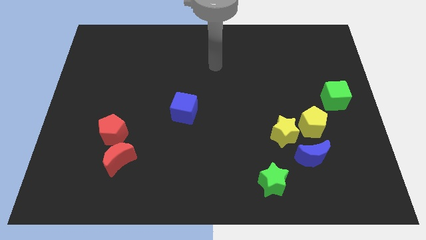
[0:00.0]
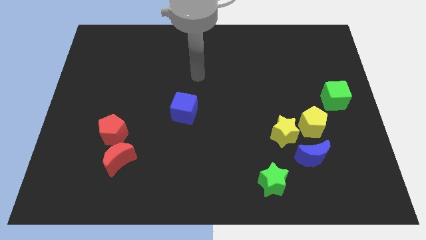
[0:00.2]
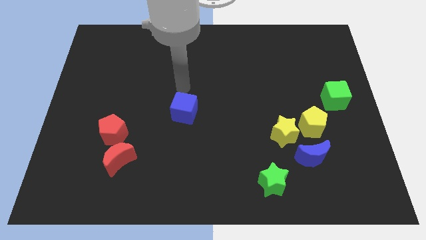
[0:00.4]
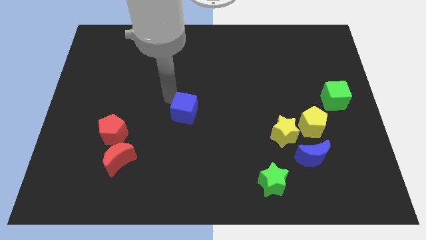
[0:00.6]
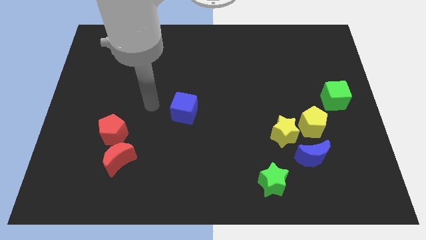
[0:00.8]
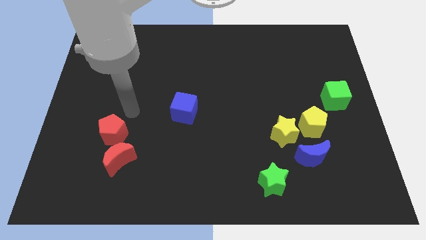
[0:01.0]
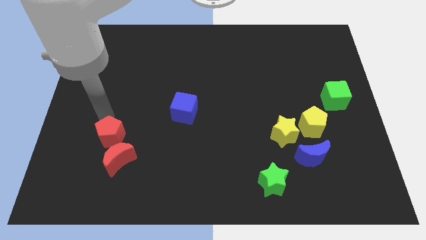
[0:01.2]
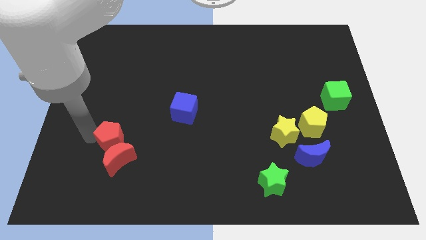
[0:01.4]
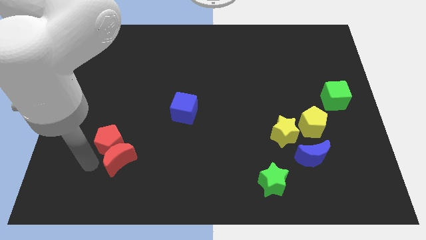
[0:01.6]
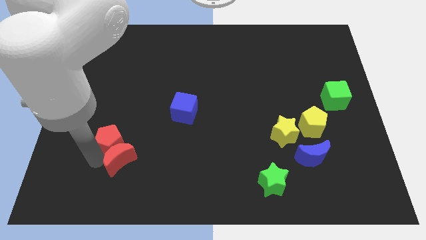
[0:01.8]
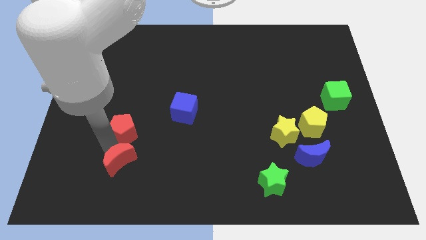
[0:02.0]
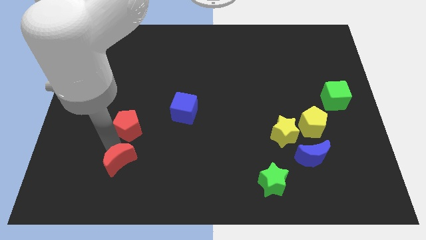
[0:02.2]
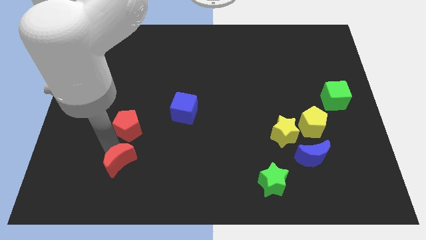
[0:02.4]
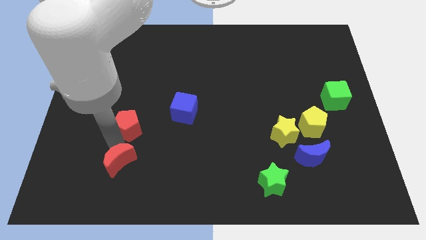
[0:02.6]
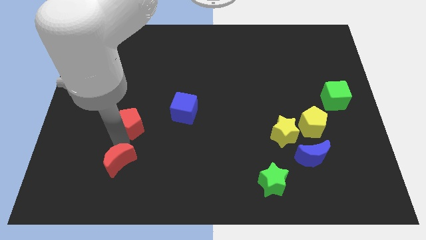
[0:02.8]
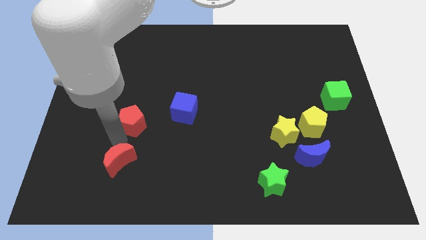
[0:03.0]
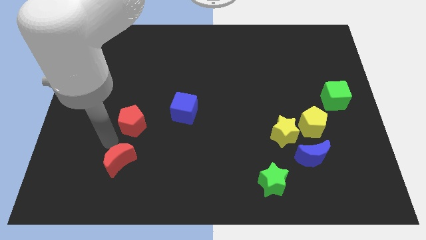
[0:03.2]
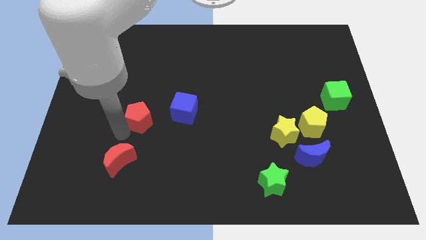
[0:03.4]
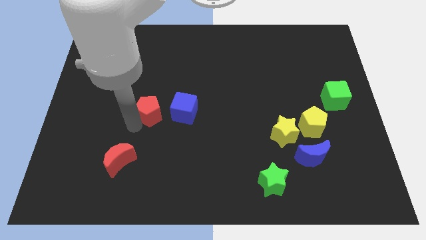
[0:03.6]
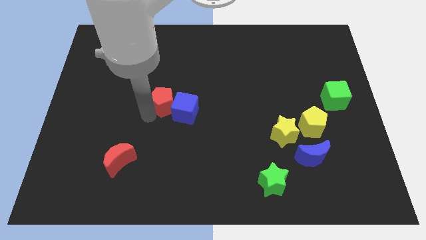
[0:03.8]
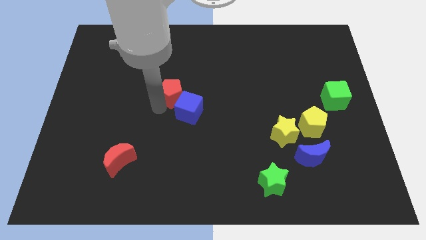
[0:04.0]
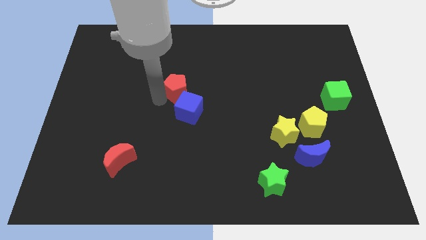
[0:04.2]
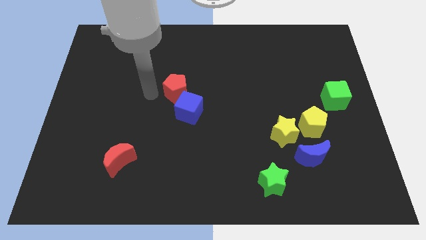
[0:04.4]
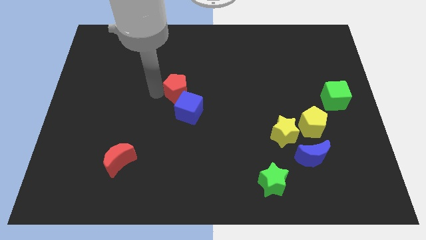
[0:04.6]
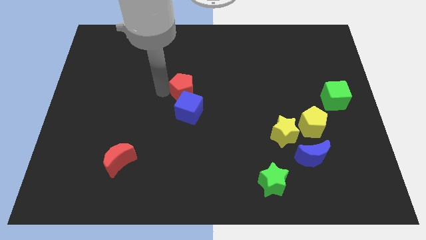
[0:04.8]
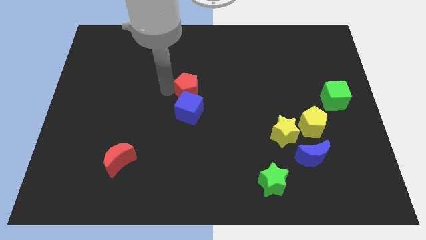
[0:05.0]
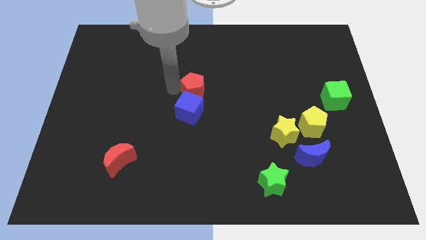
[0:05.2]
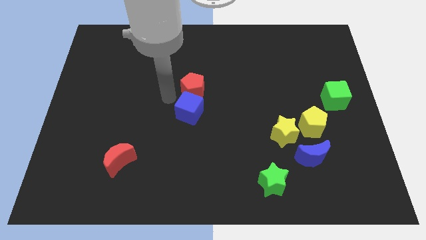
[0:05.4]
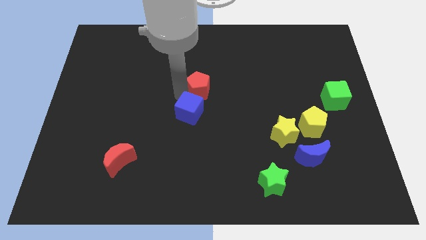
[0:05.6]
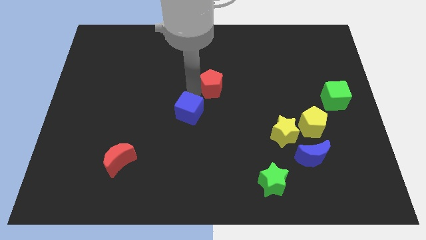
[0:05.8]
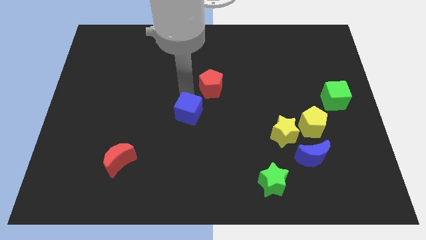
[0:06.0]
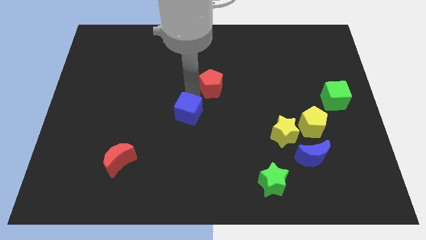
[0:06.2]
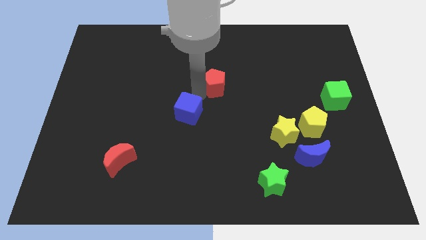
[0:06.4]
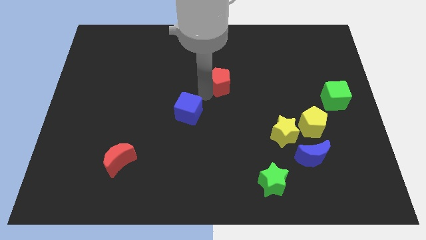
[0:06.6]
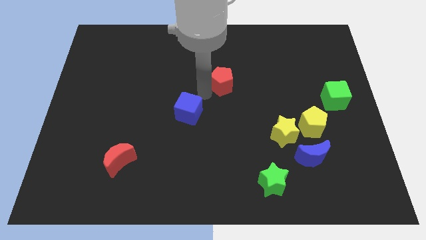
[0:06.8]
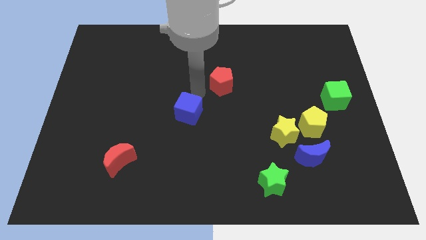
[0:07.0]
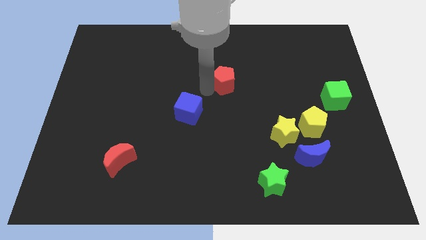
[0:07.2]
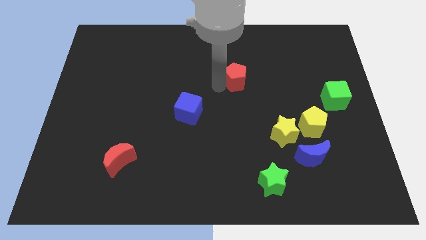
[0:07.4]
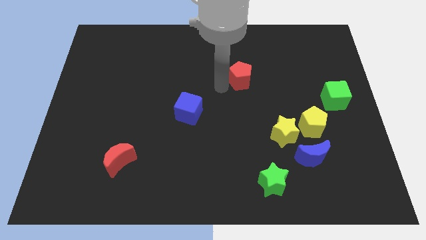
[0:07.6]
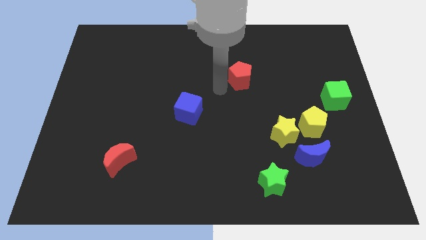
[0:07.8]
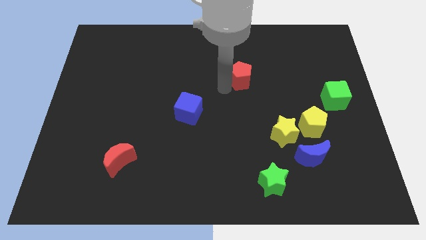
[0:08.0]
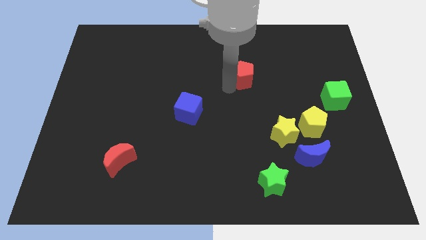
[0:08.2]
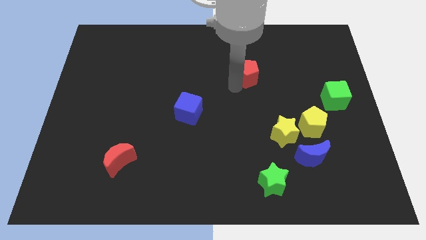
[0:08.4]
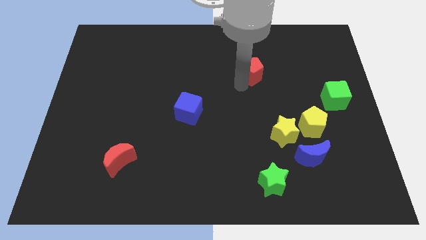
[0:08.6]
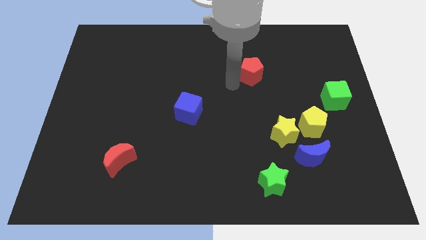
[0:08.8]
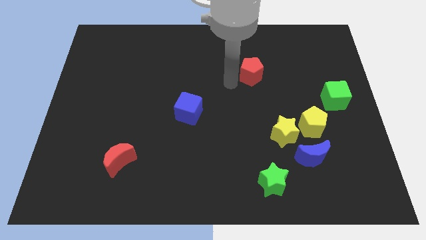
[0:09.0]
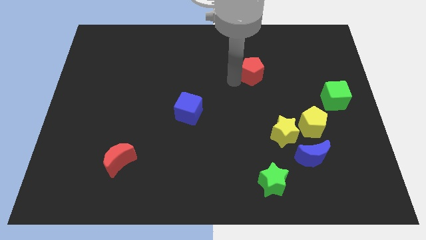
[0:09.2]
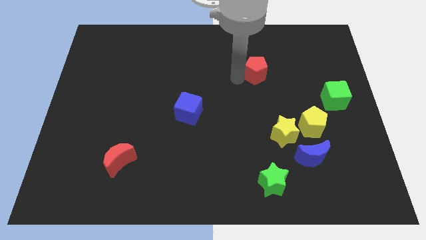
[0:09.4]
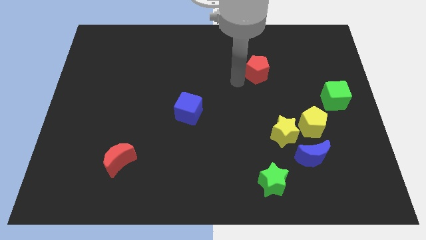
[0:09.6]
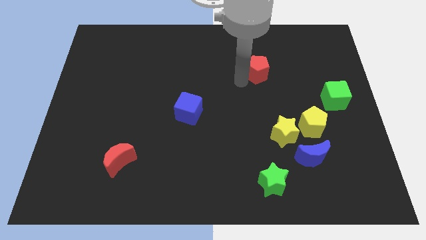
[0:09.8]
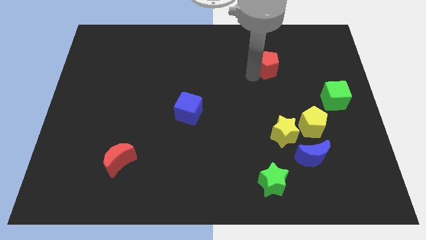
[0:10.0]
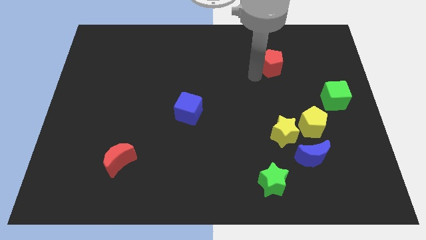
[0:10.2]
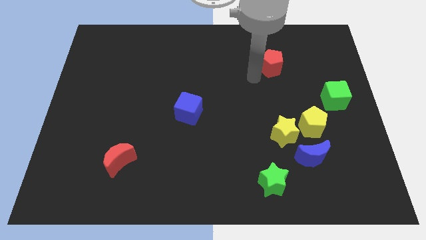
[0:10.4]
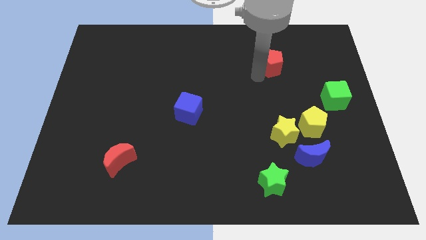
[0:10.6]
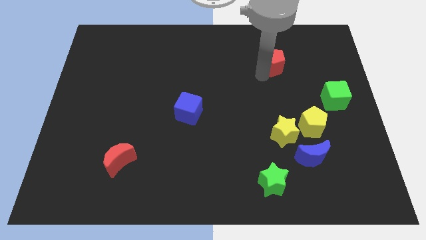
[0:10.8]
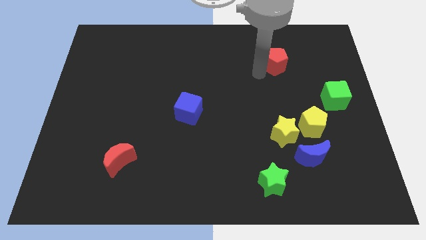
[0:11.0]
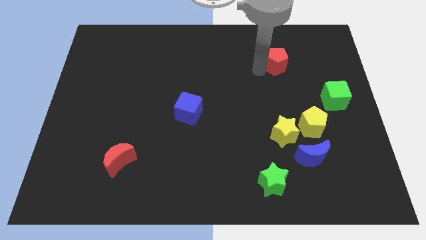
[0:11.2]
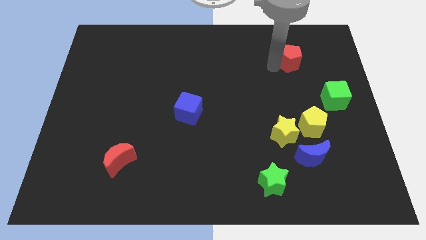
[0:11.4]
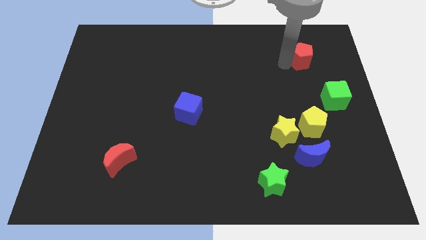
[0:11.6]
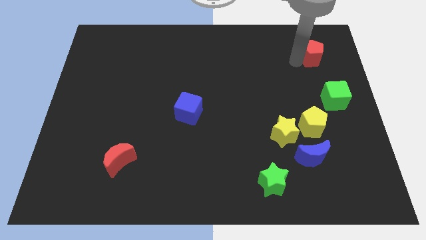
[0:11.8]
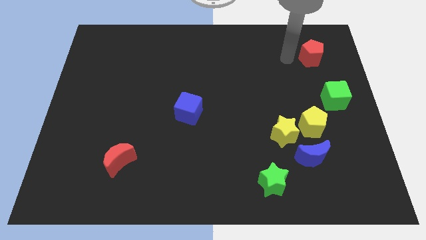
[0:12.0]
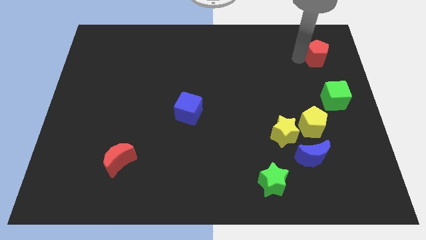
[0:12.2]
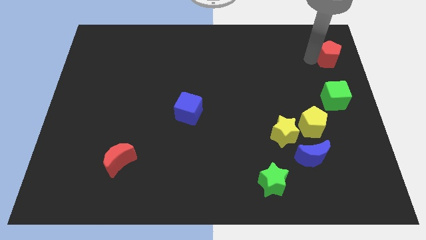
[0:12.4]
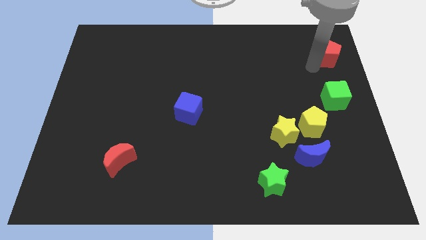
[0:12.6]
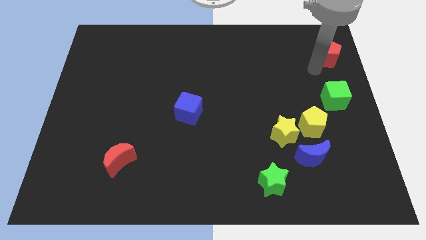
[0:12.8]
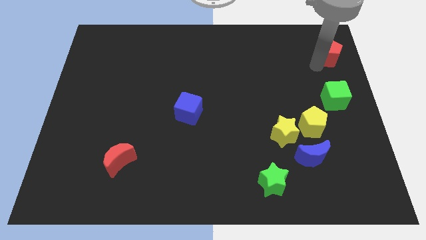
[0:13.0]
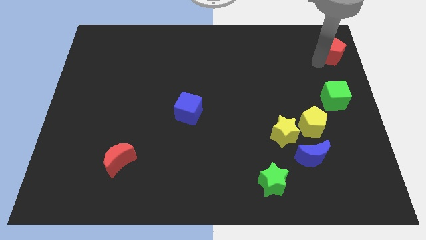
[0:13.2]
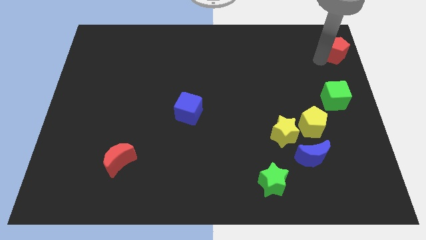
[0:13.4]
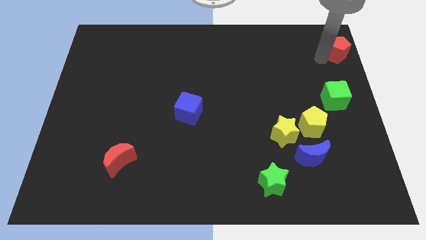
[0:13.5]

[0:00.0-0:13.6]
push the red pentagon to the top right

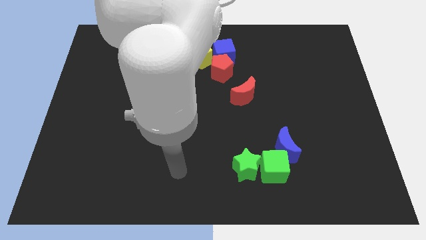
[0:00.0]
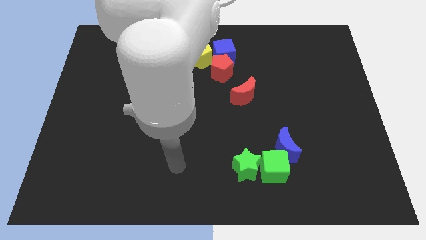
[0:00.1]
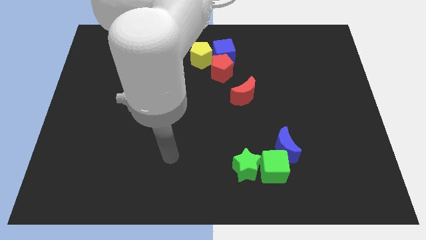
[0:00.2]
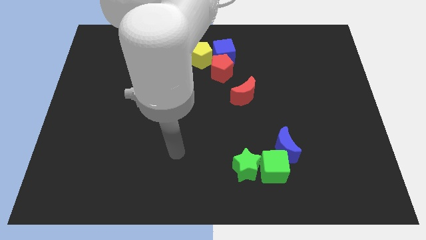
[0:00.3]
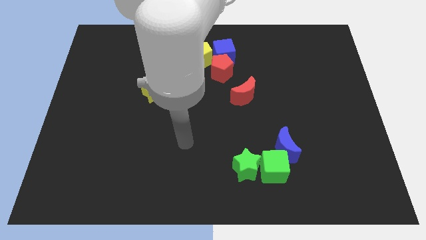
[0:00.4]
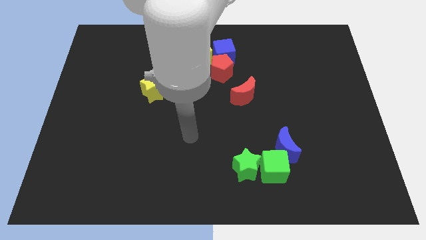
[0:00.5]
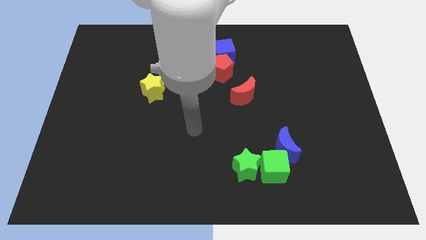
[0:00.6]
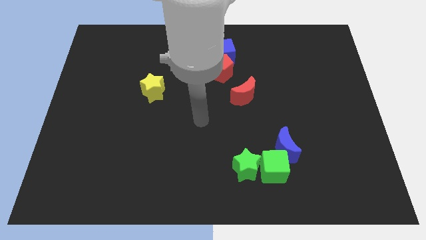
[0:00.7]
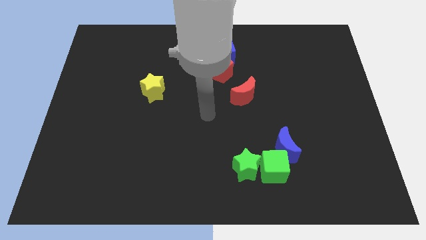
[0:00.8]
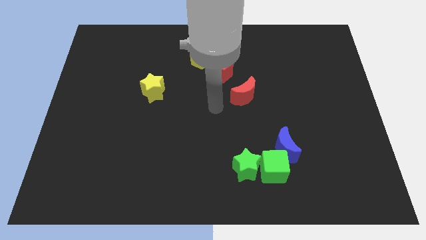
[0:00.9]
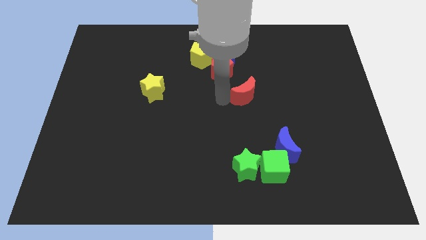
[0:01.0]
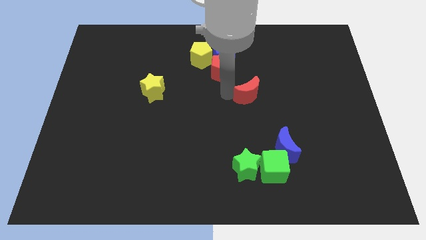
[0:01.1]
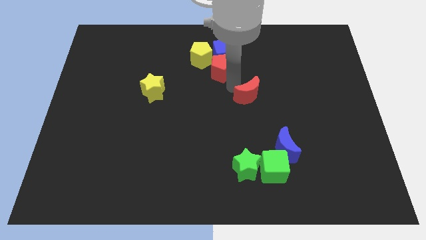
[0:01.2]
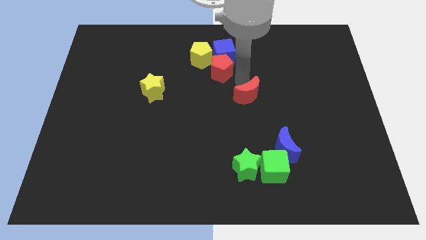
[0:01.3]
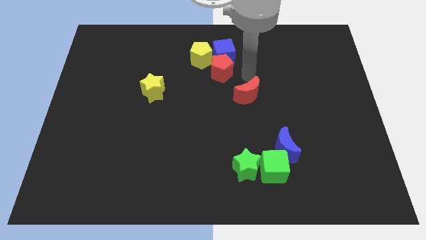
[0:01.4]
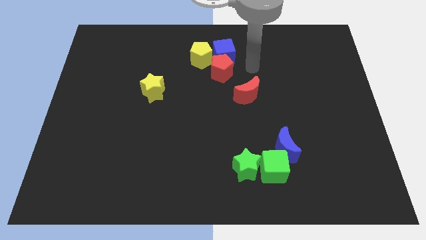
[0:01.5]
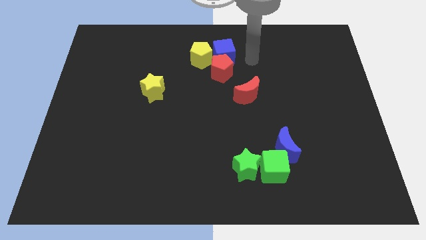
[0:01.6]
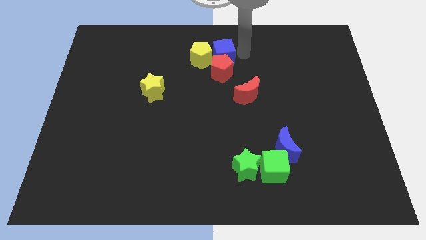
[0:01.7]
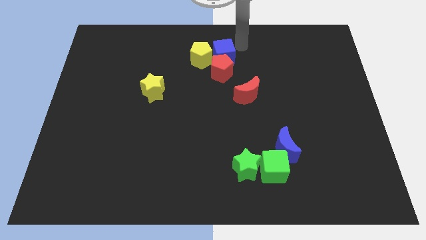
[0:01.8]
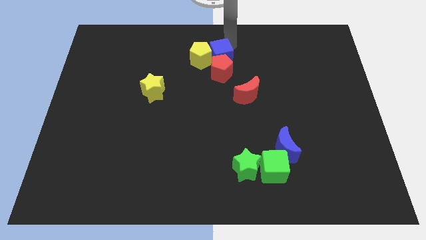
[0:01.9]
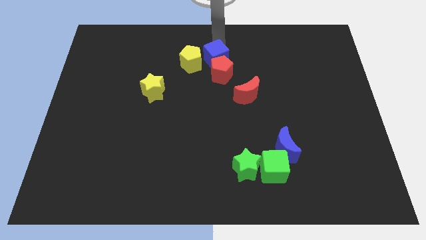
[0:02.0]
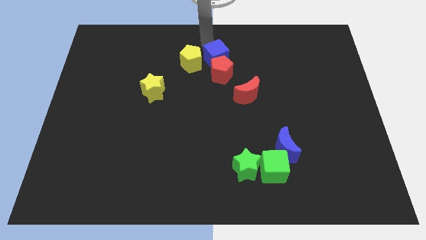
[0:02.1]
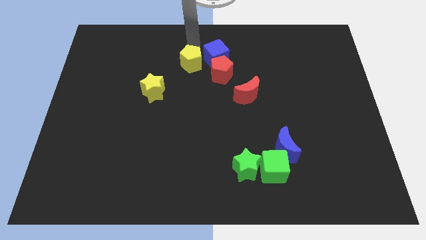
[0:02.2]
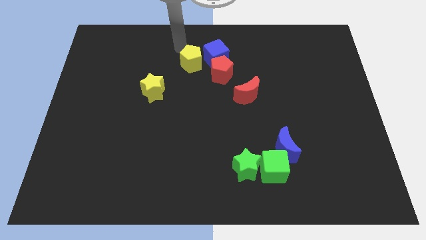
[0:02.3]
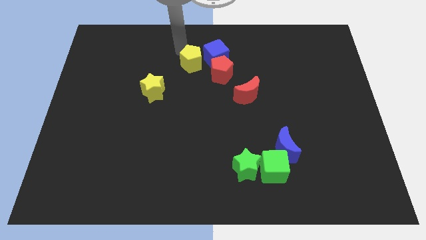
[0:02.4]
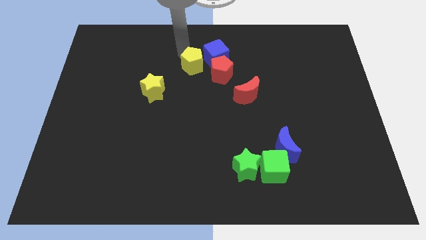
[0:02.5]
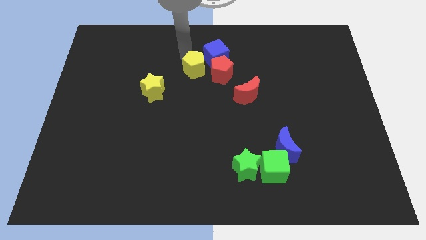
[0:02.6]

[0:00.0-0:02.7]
slide the yellow pentagon to the center
